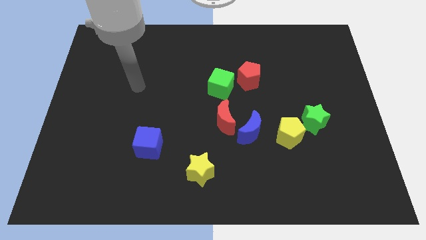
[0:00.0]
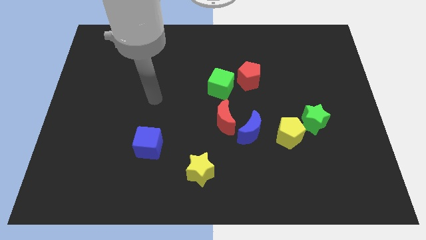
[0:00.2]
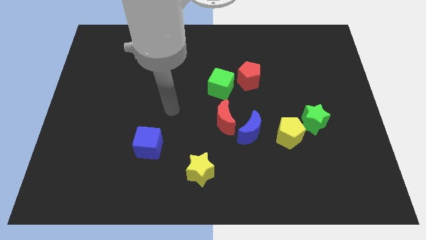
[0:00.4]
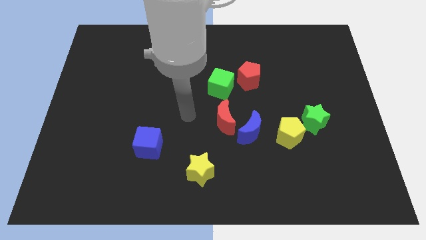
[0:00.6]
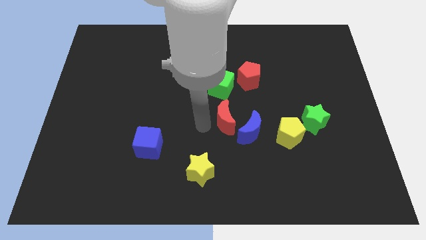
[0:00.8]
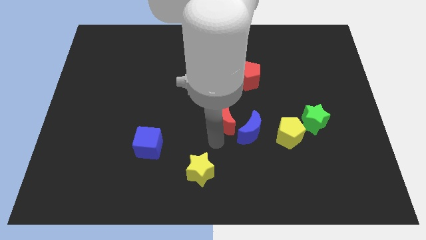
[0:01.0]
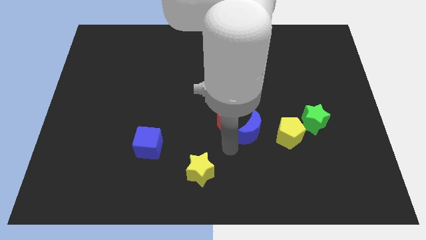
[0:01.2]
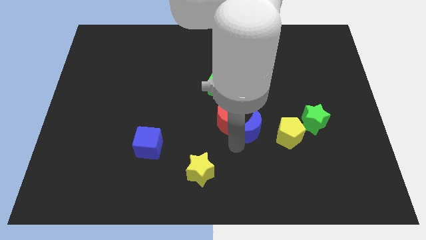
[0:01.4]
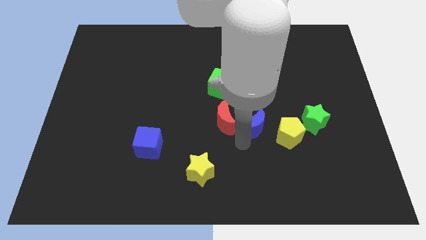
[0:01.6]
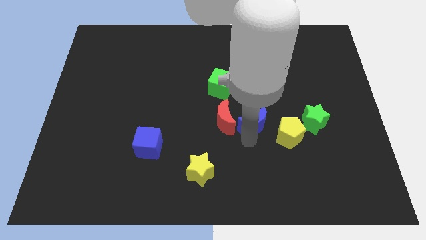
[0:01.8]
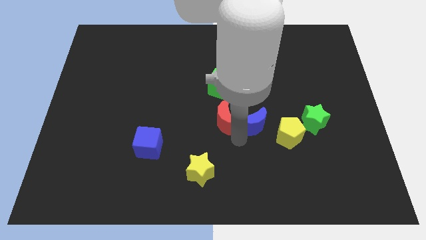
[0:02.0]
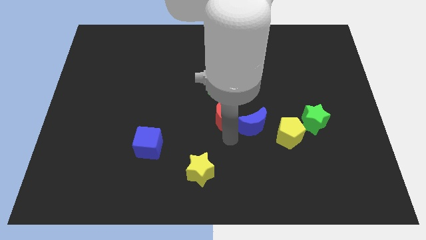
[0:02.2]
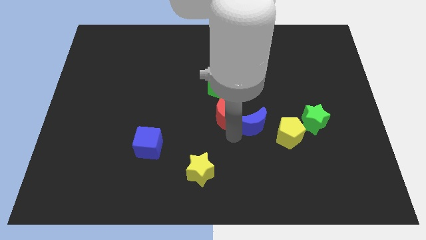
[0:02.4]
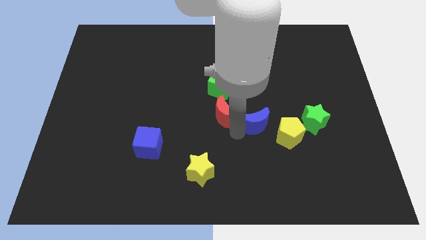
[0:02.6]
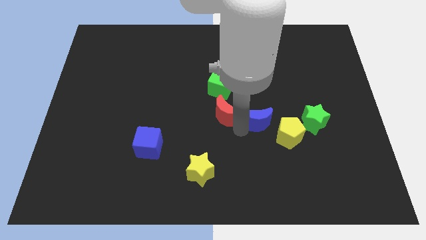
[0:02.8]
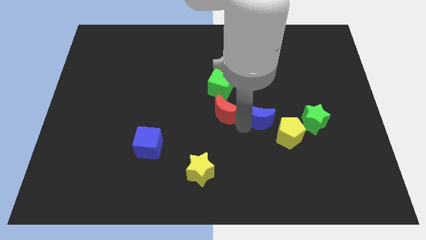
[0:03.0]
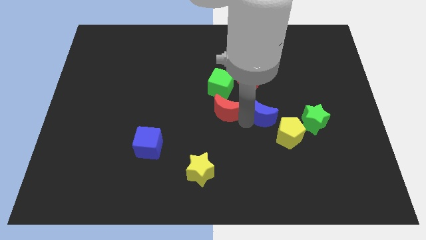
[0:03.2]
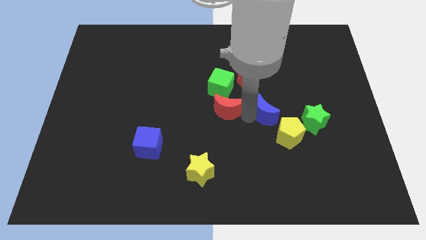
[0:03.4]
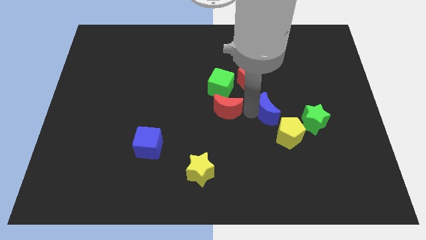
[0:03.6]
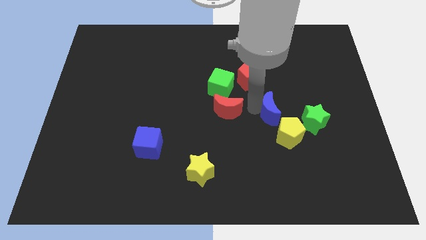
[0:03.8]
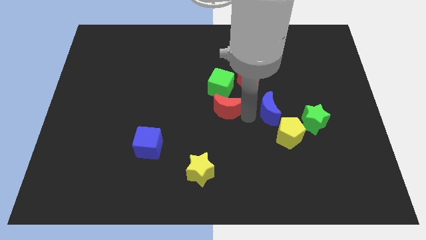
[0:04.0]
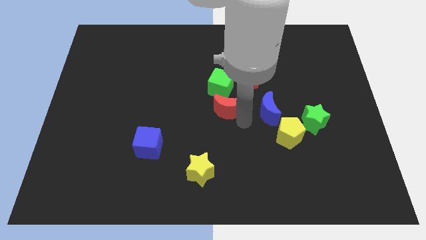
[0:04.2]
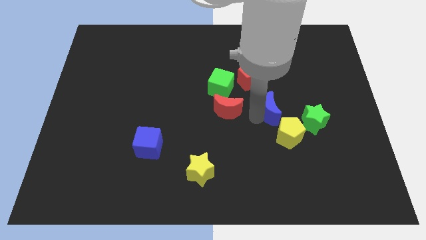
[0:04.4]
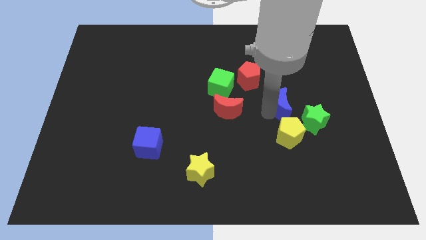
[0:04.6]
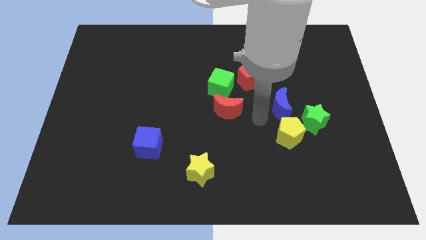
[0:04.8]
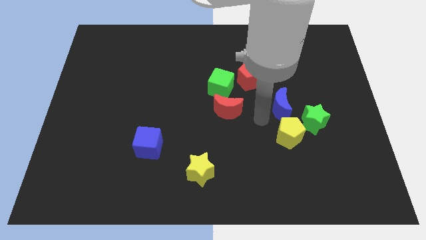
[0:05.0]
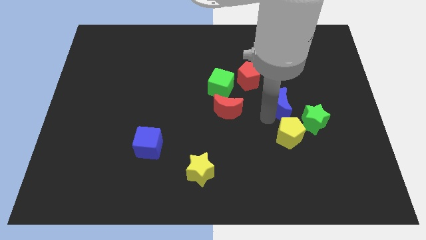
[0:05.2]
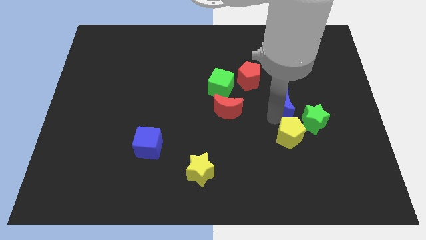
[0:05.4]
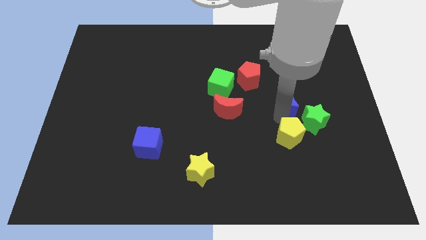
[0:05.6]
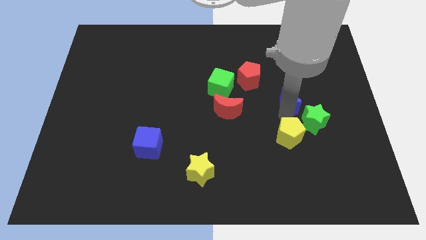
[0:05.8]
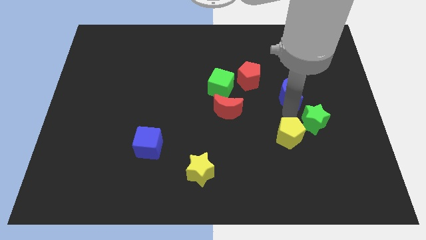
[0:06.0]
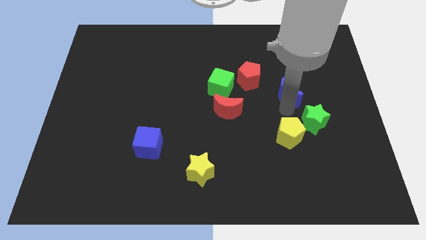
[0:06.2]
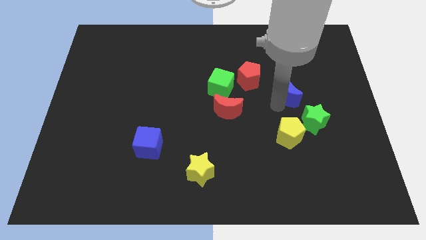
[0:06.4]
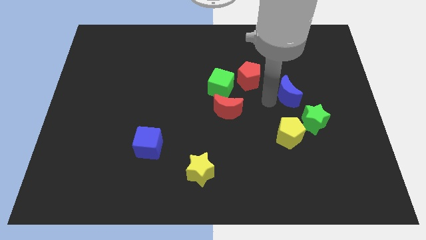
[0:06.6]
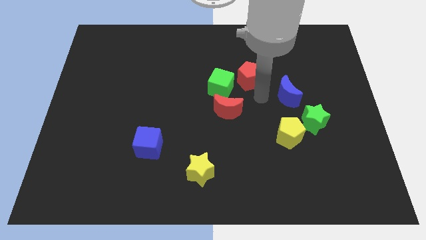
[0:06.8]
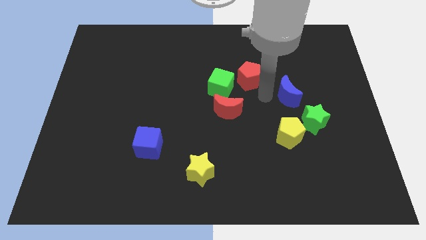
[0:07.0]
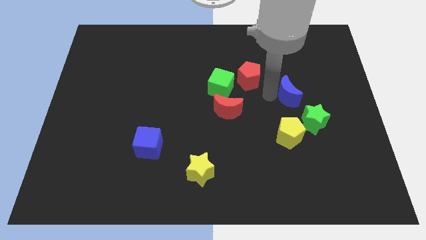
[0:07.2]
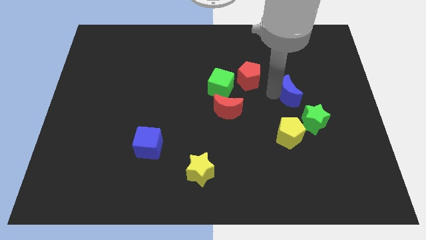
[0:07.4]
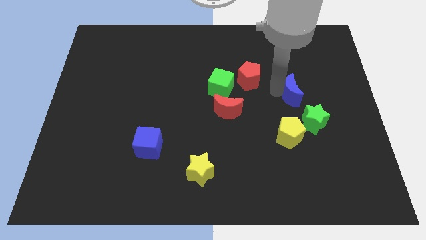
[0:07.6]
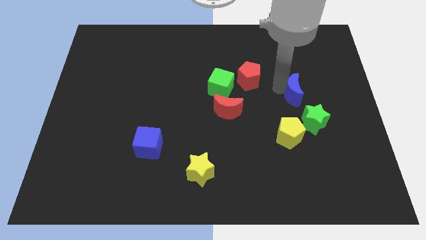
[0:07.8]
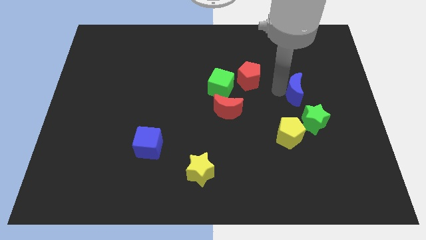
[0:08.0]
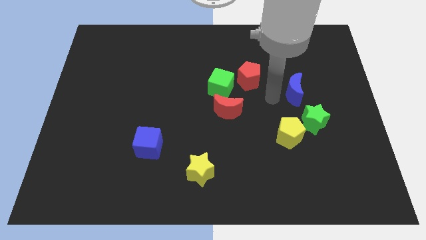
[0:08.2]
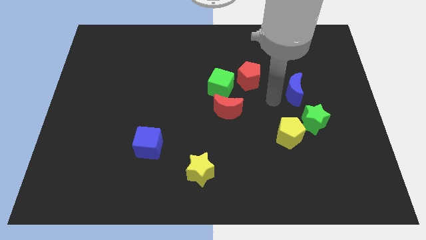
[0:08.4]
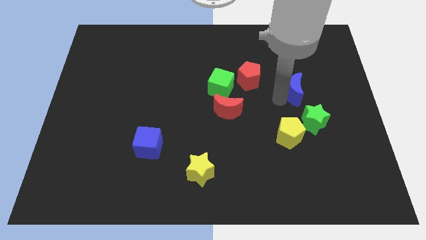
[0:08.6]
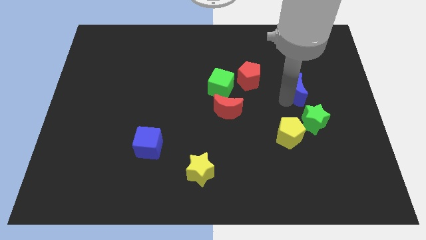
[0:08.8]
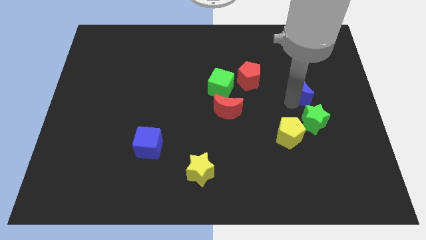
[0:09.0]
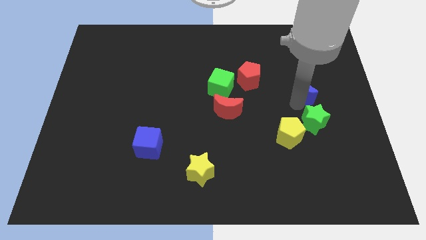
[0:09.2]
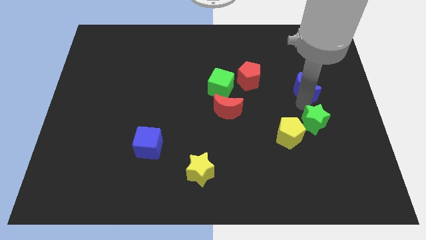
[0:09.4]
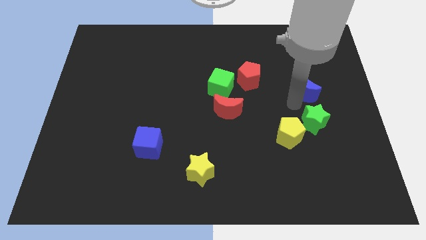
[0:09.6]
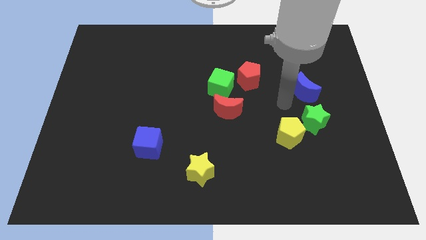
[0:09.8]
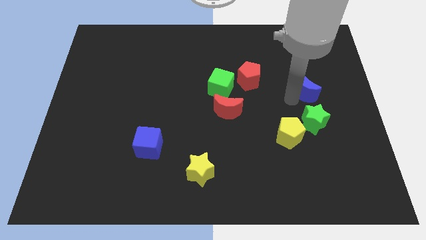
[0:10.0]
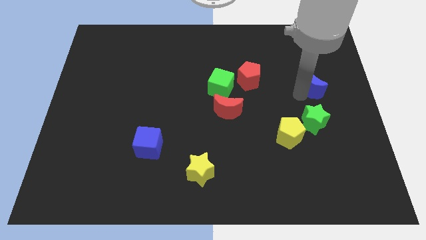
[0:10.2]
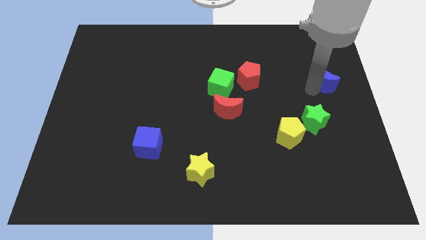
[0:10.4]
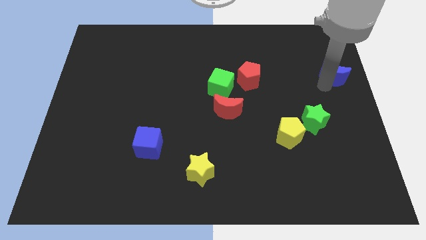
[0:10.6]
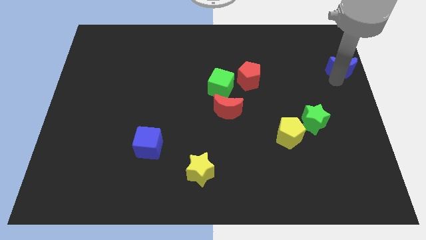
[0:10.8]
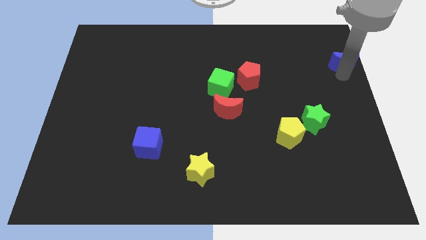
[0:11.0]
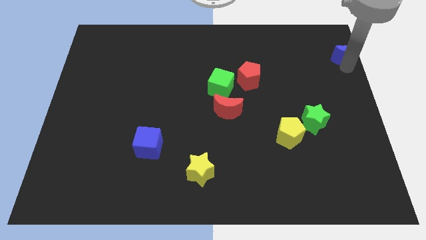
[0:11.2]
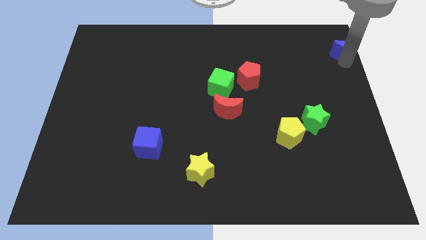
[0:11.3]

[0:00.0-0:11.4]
push the blue moon to the top right of the board

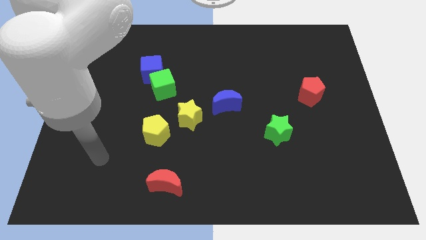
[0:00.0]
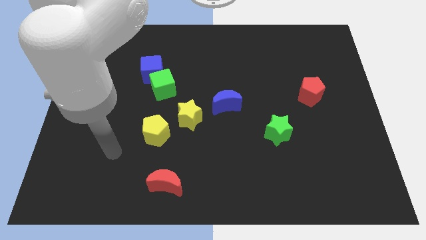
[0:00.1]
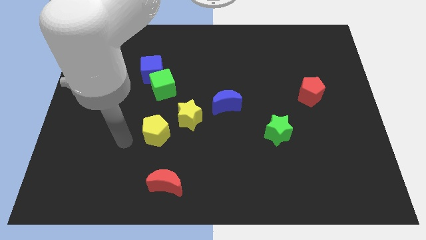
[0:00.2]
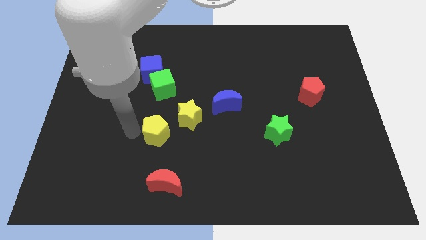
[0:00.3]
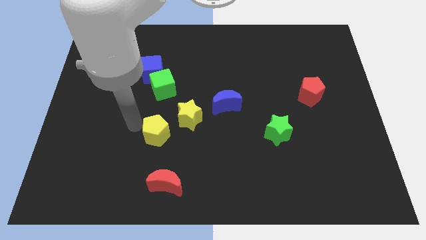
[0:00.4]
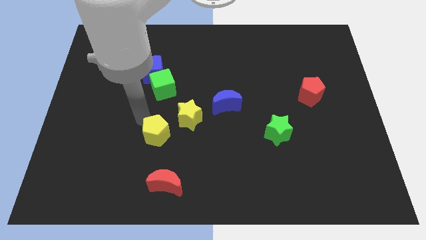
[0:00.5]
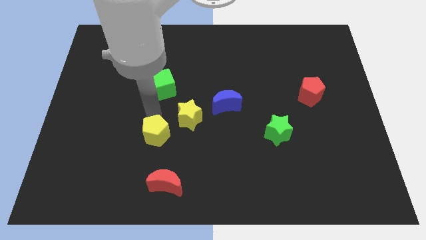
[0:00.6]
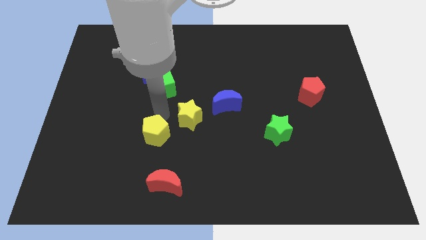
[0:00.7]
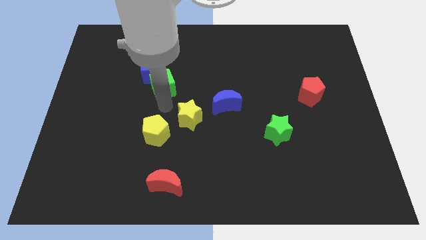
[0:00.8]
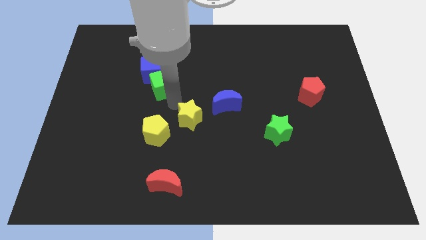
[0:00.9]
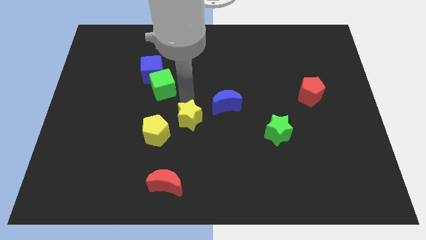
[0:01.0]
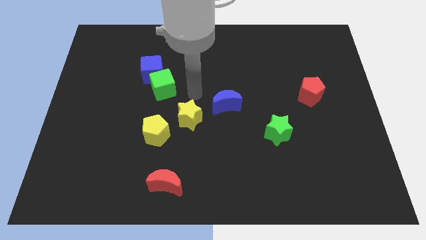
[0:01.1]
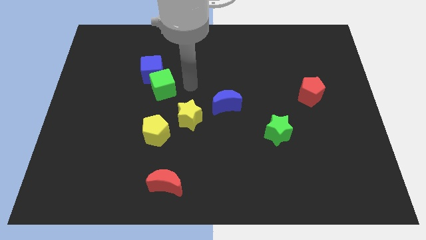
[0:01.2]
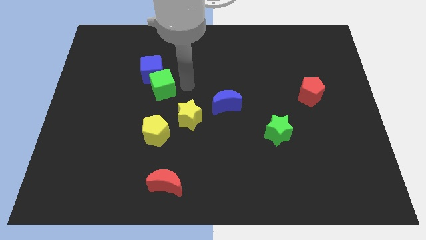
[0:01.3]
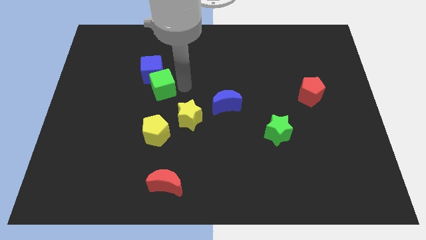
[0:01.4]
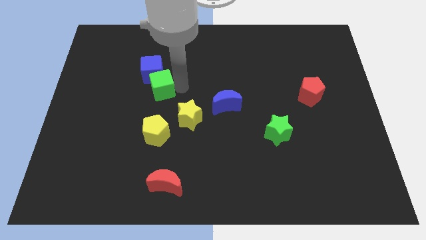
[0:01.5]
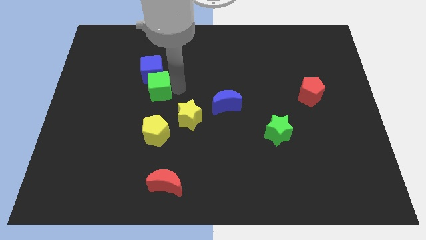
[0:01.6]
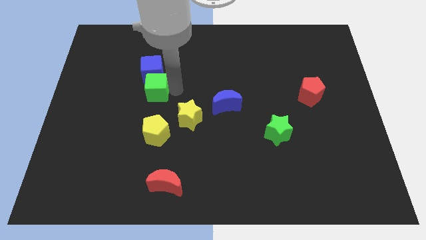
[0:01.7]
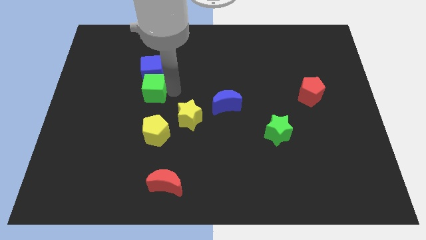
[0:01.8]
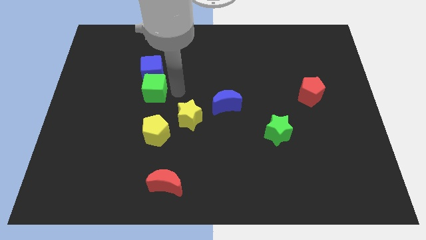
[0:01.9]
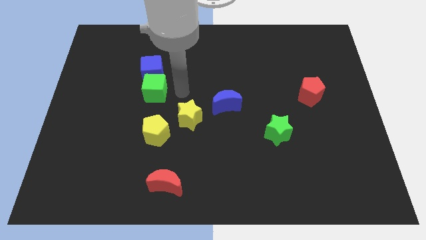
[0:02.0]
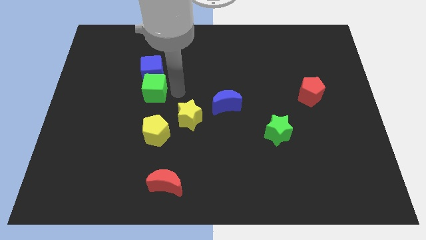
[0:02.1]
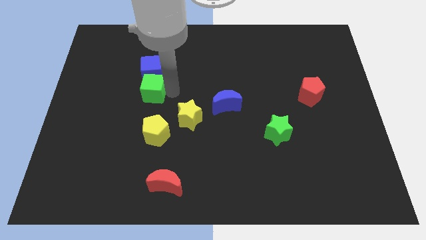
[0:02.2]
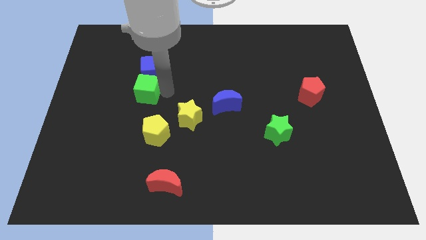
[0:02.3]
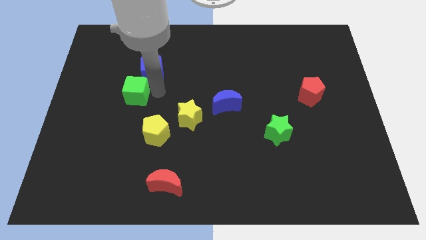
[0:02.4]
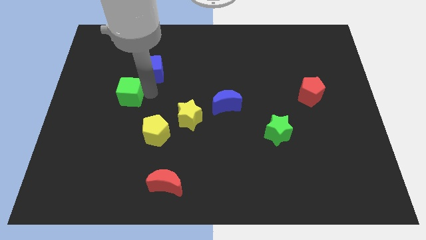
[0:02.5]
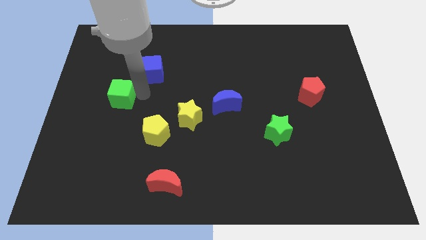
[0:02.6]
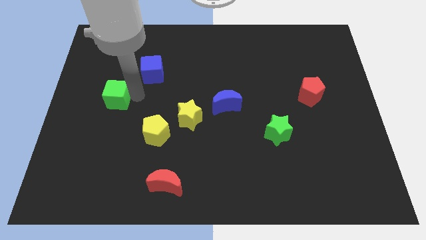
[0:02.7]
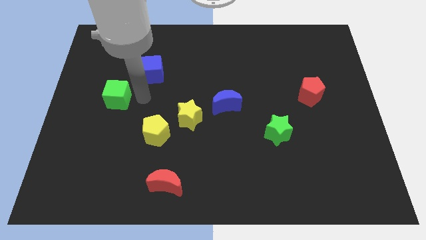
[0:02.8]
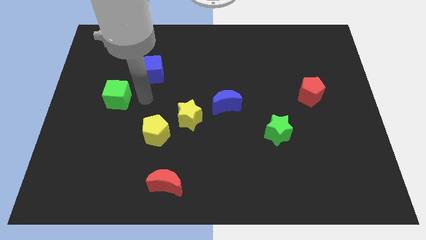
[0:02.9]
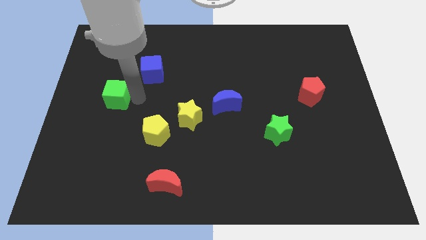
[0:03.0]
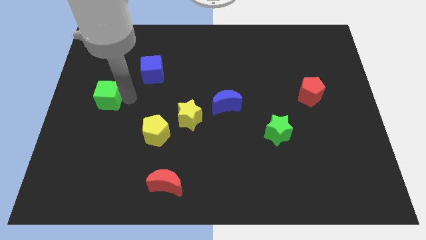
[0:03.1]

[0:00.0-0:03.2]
slide the green cube to the center left
